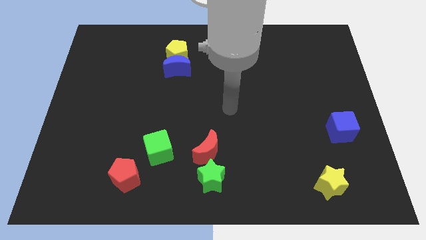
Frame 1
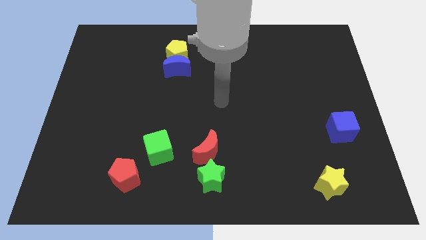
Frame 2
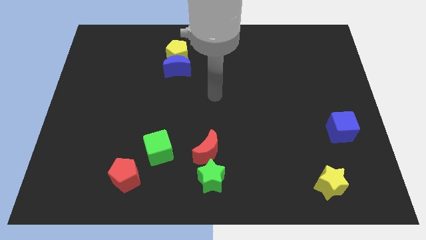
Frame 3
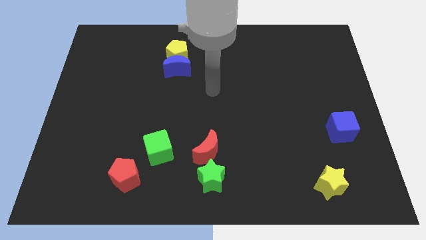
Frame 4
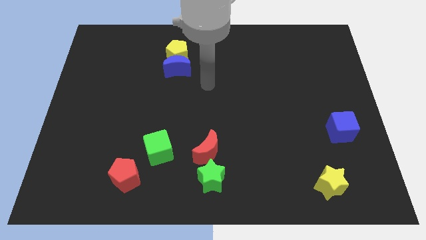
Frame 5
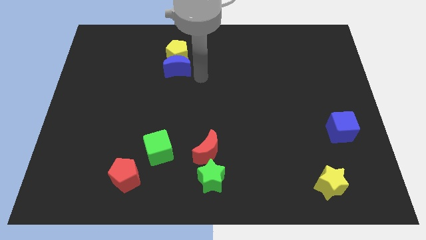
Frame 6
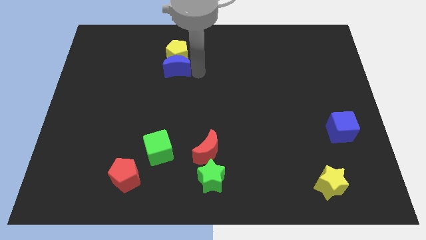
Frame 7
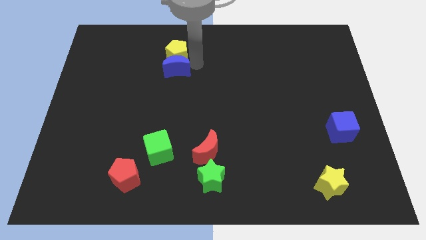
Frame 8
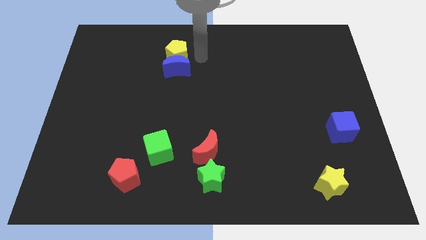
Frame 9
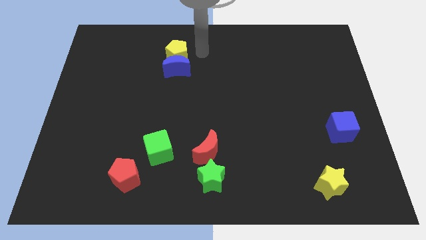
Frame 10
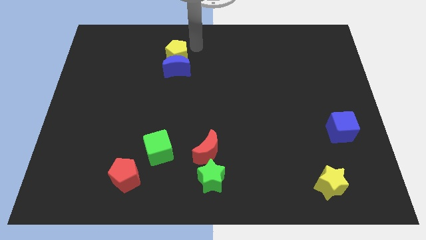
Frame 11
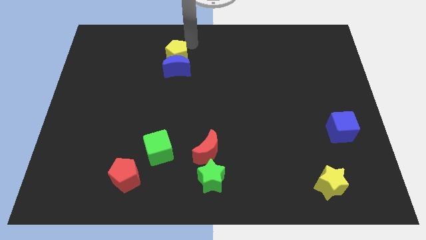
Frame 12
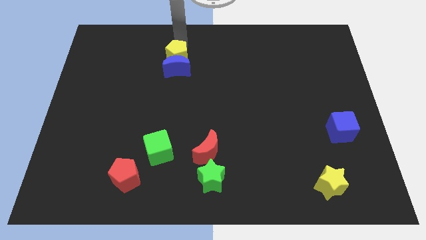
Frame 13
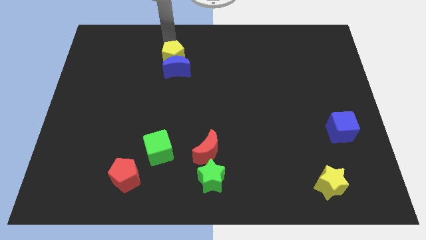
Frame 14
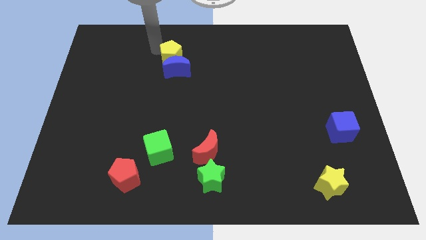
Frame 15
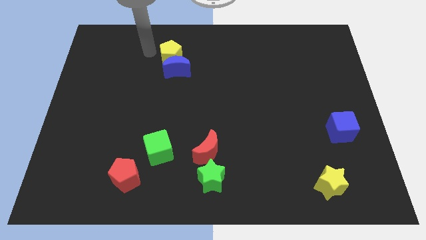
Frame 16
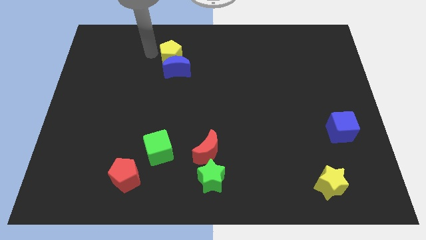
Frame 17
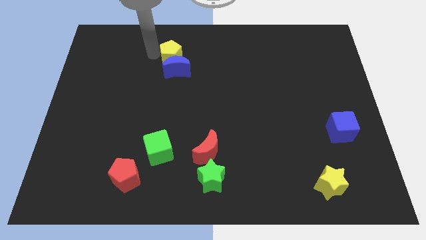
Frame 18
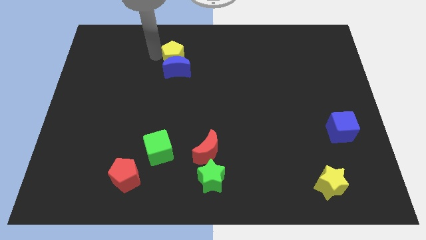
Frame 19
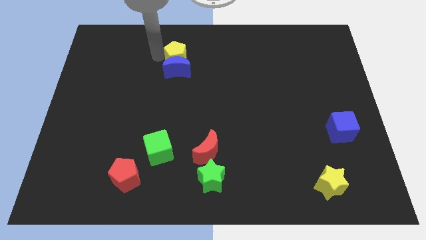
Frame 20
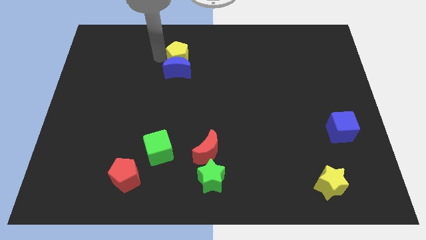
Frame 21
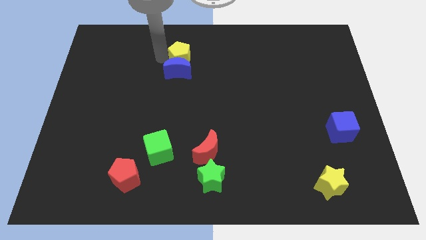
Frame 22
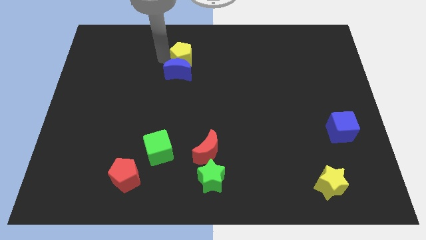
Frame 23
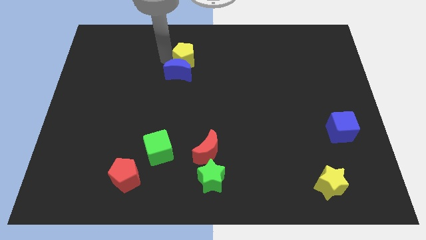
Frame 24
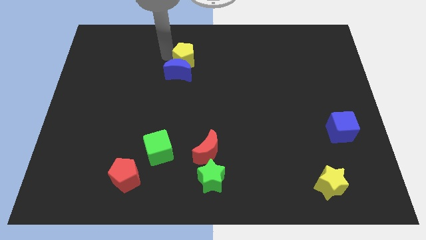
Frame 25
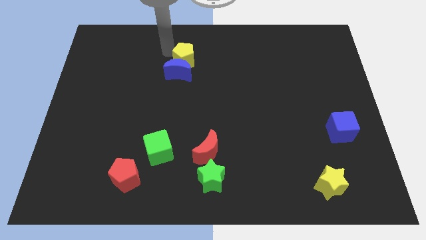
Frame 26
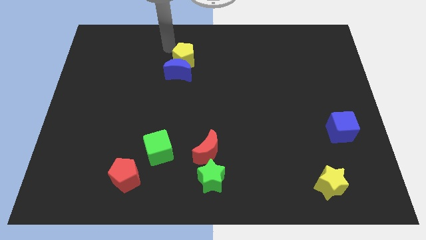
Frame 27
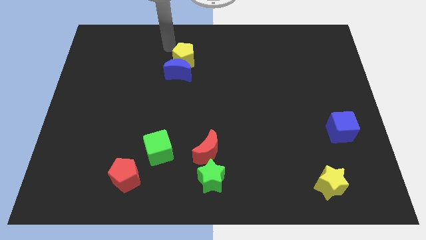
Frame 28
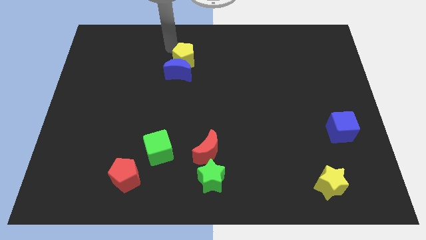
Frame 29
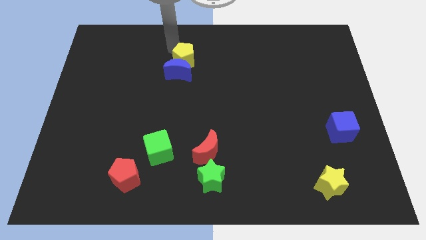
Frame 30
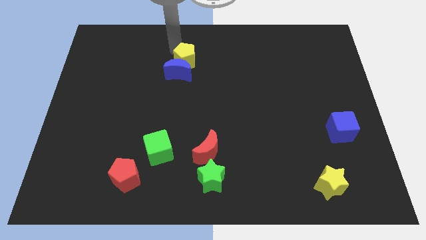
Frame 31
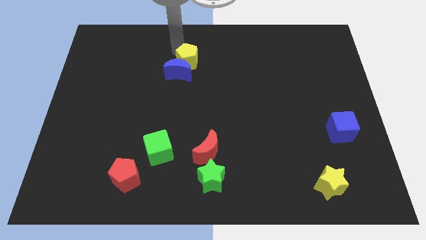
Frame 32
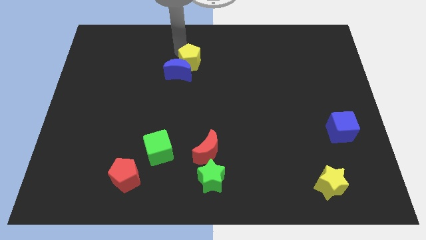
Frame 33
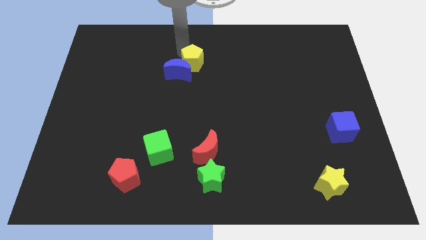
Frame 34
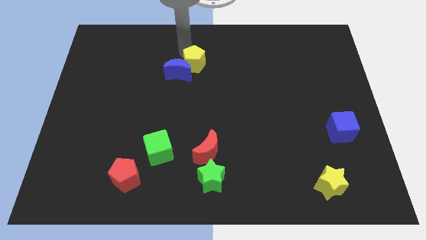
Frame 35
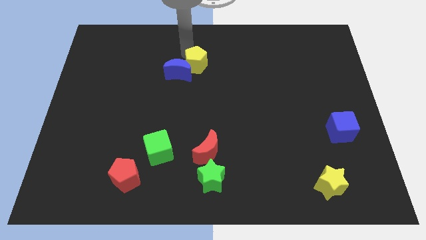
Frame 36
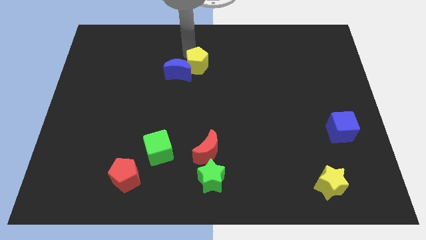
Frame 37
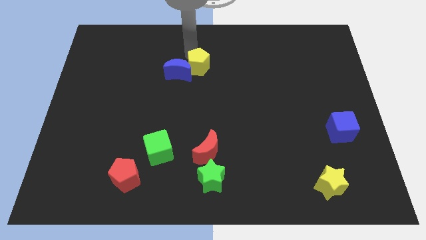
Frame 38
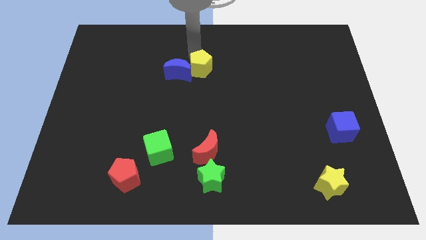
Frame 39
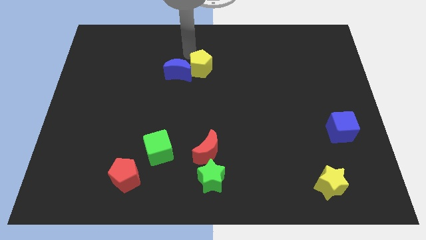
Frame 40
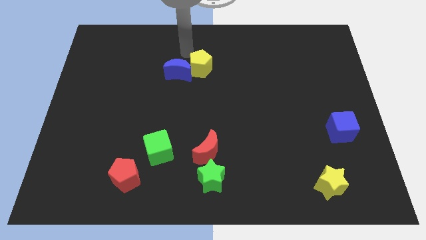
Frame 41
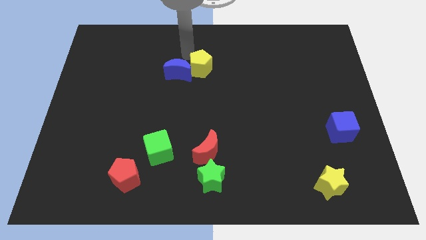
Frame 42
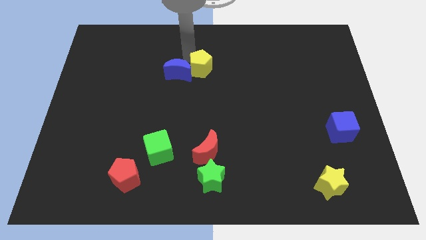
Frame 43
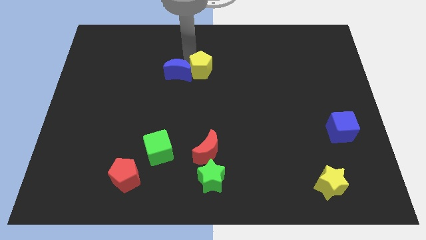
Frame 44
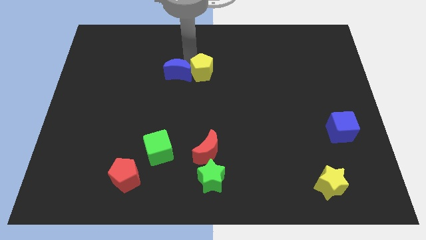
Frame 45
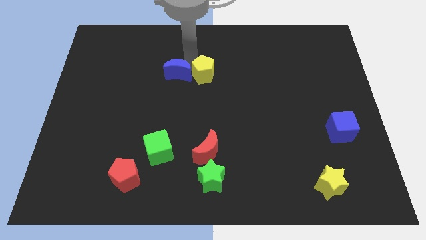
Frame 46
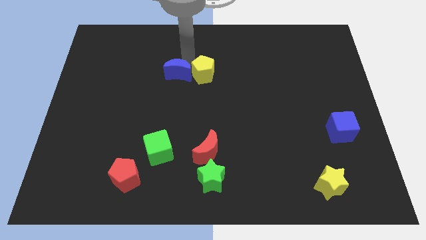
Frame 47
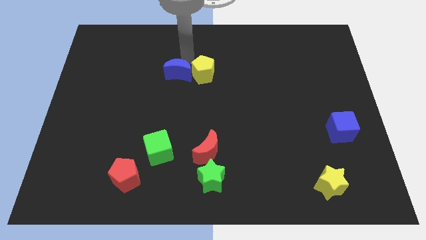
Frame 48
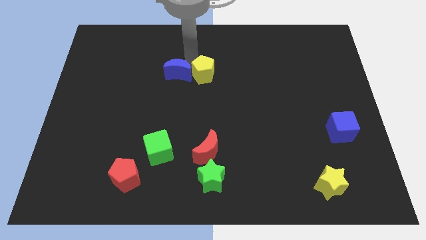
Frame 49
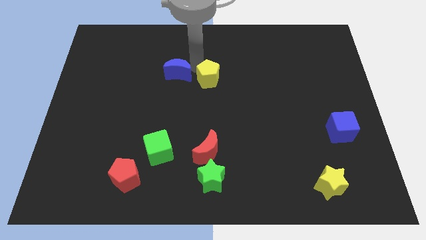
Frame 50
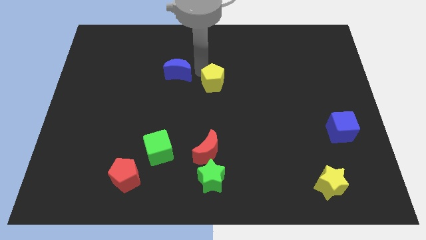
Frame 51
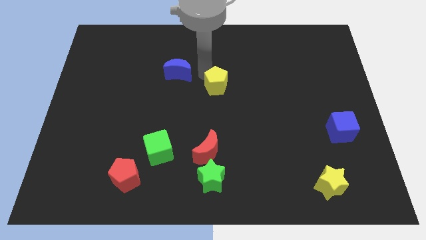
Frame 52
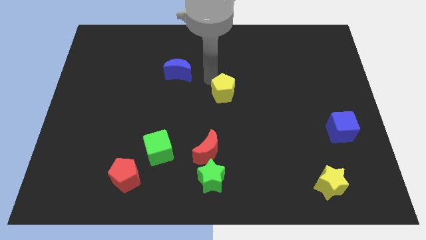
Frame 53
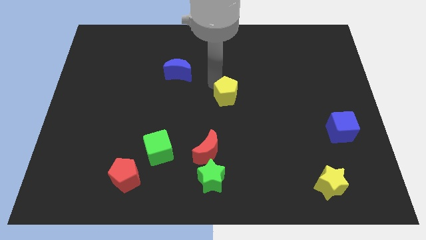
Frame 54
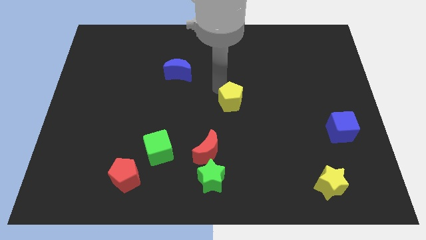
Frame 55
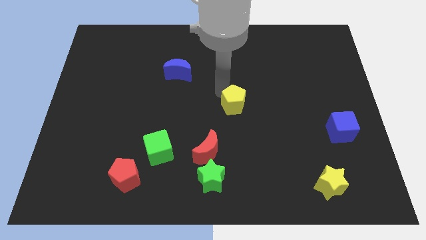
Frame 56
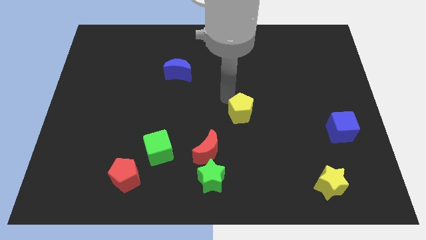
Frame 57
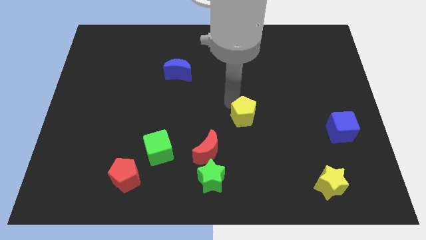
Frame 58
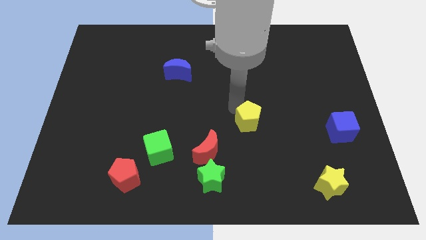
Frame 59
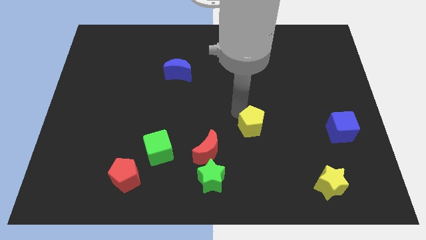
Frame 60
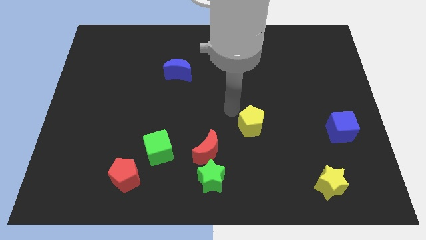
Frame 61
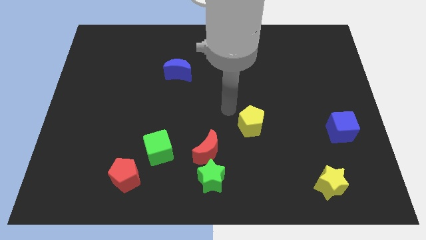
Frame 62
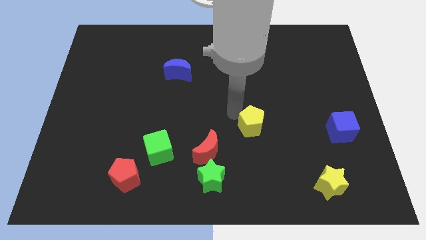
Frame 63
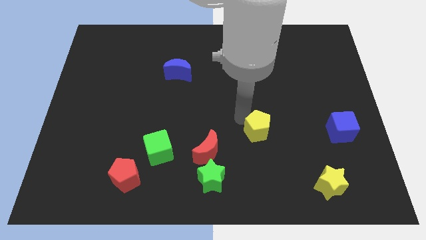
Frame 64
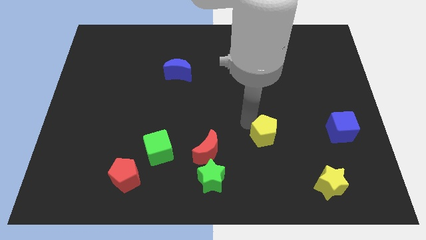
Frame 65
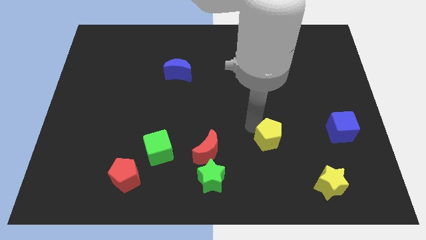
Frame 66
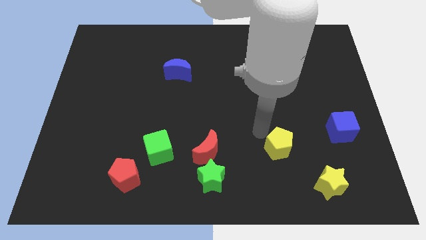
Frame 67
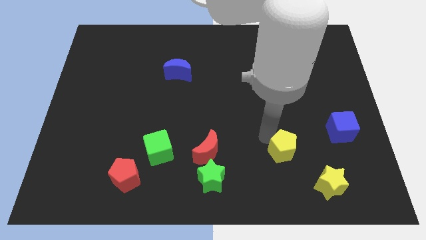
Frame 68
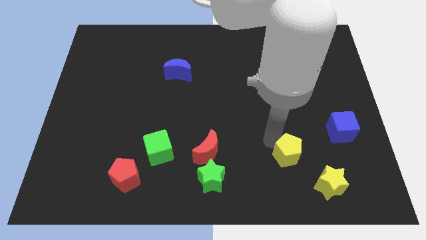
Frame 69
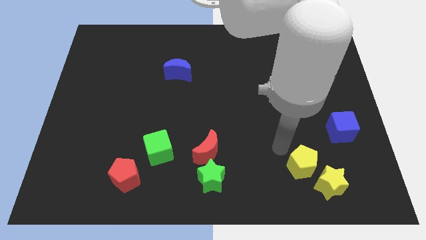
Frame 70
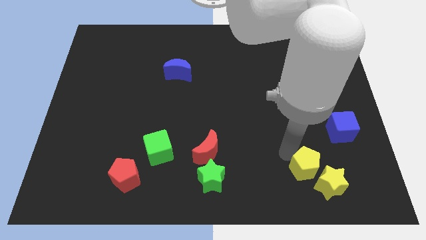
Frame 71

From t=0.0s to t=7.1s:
move the yellow pentagon close to the yellow star
